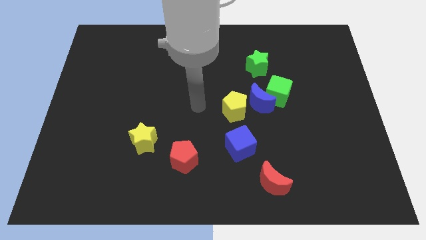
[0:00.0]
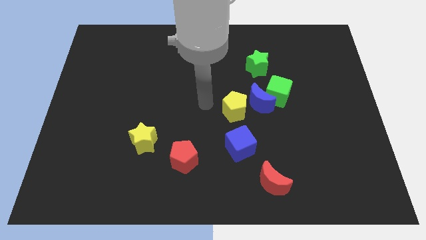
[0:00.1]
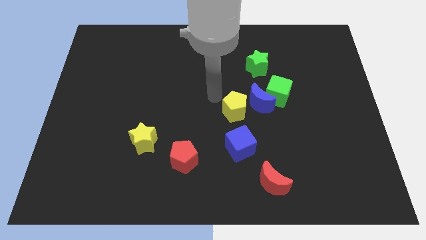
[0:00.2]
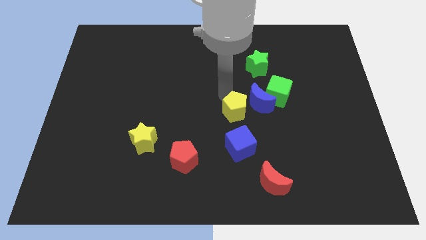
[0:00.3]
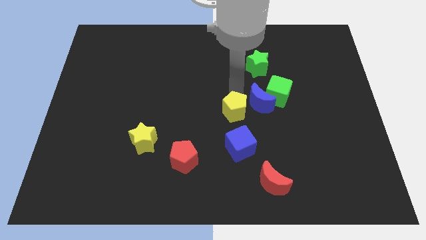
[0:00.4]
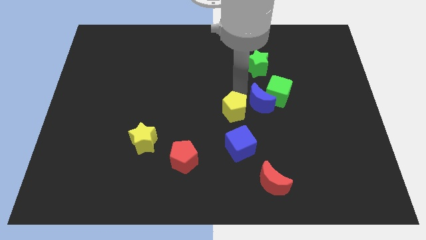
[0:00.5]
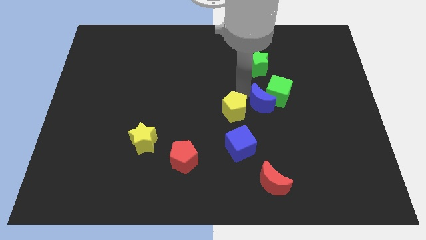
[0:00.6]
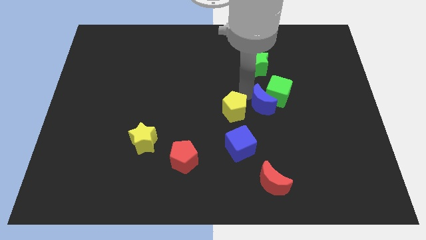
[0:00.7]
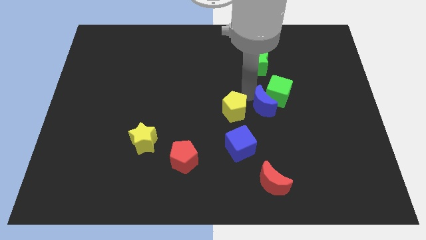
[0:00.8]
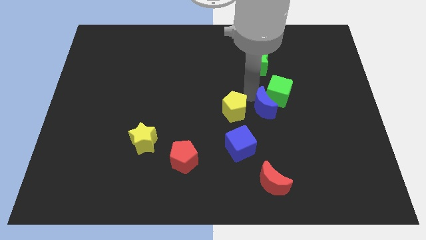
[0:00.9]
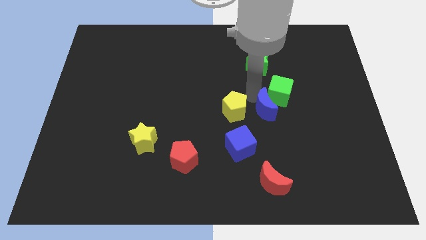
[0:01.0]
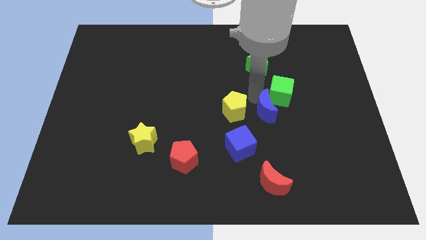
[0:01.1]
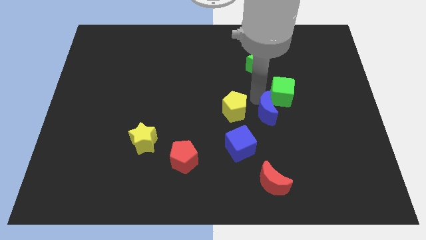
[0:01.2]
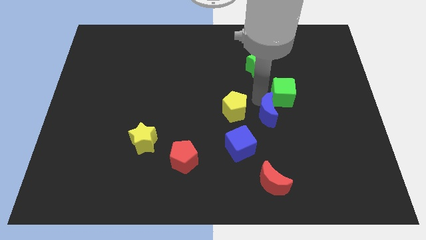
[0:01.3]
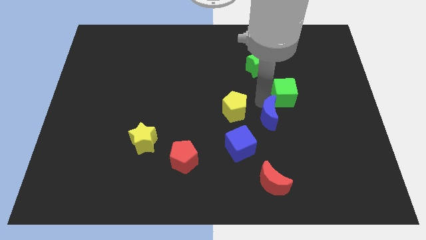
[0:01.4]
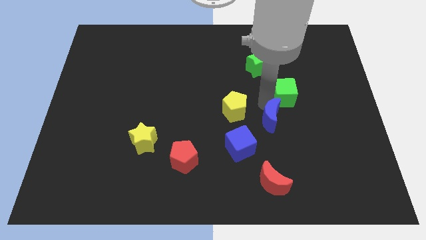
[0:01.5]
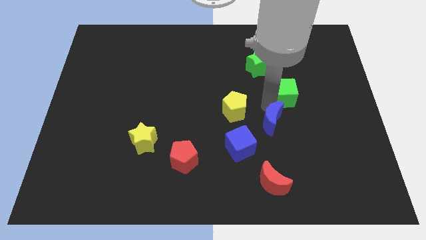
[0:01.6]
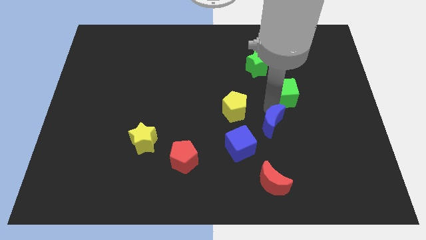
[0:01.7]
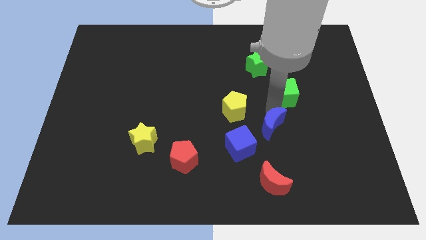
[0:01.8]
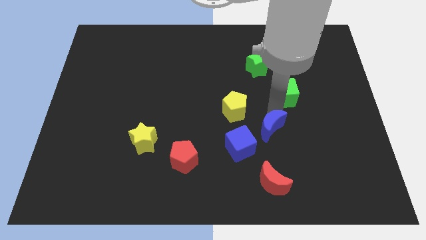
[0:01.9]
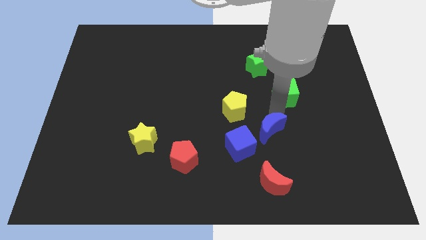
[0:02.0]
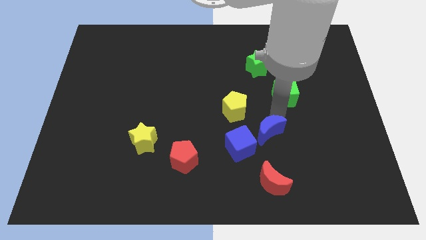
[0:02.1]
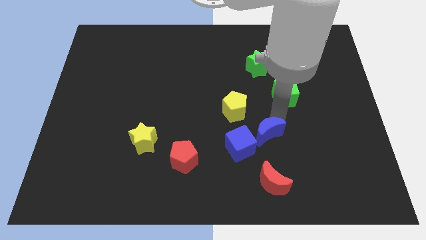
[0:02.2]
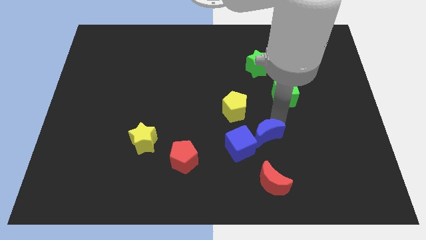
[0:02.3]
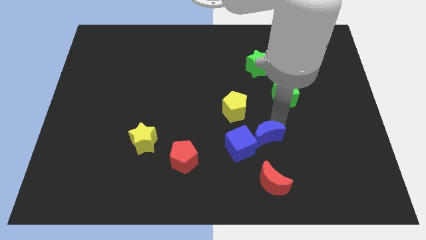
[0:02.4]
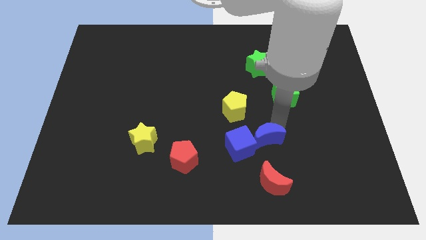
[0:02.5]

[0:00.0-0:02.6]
separate the blue moon from the green cube and yellow pentagon

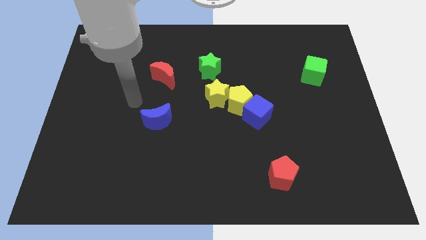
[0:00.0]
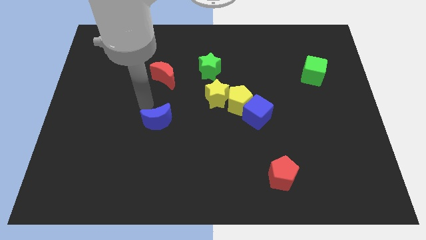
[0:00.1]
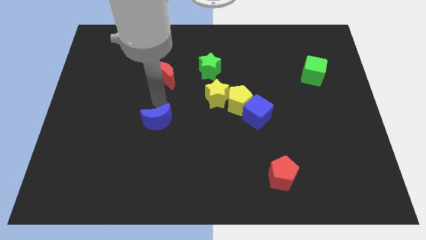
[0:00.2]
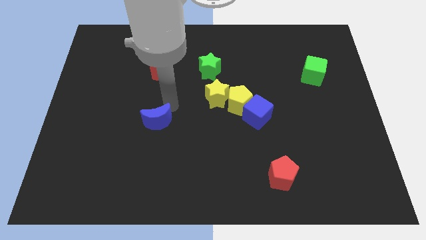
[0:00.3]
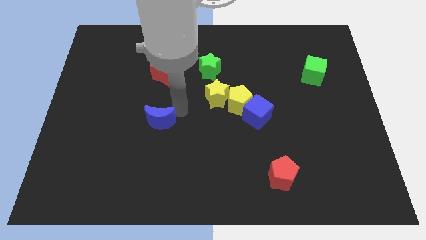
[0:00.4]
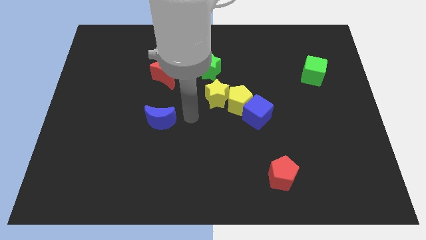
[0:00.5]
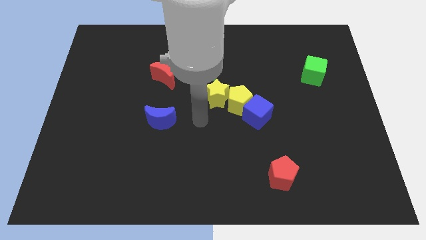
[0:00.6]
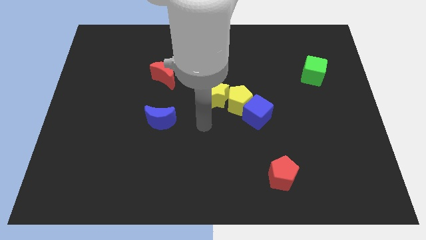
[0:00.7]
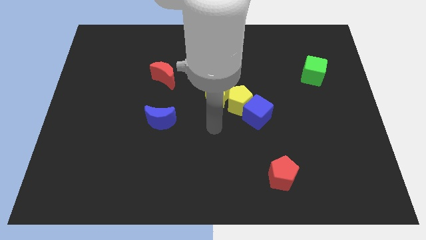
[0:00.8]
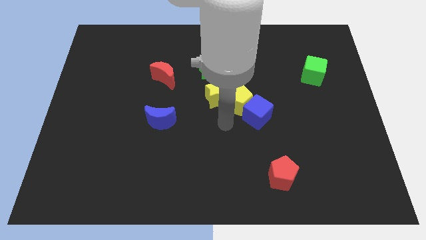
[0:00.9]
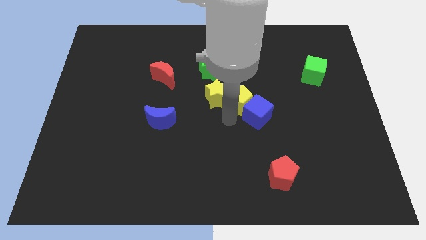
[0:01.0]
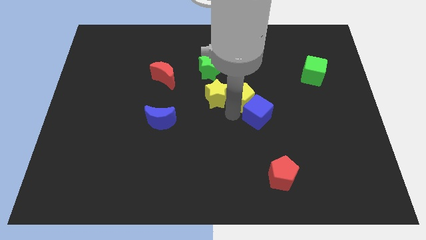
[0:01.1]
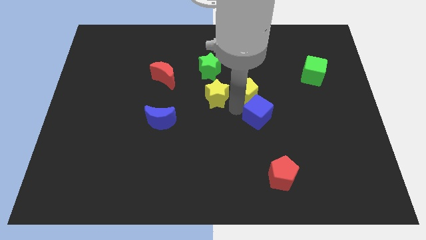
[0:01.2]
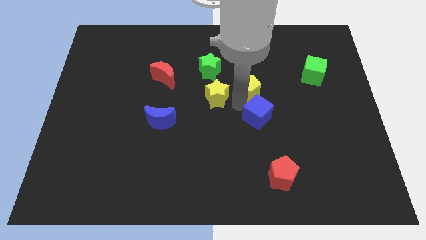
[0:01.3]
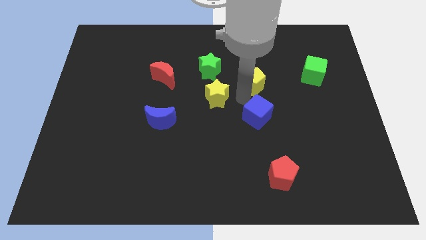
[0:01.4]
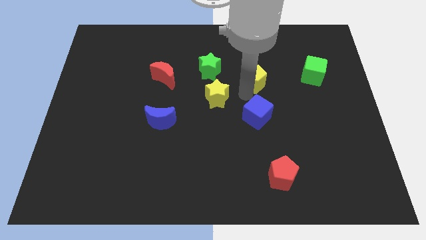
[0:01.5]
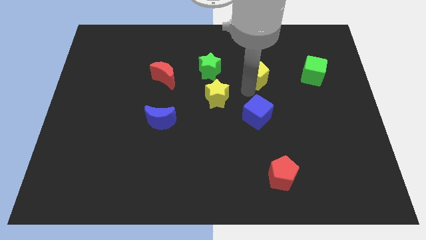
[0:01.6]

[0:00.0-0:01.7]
move the yellow pentagon away from the yellow star and blue cube

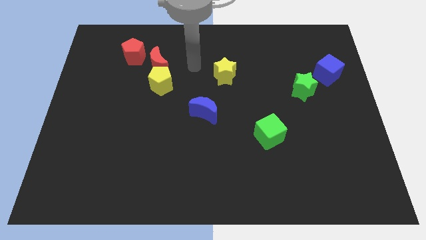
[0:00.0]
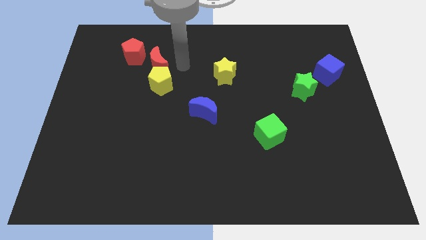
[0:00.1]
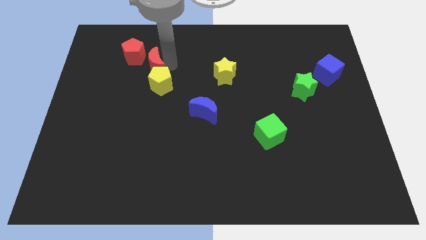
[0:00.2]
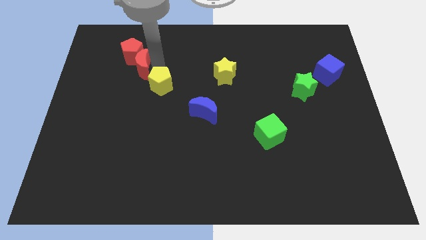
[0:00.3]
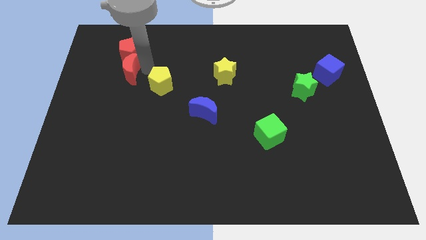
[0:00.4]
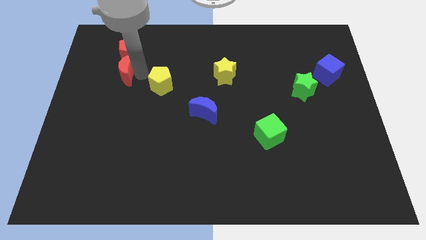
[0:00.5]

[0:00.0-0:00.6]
pull the yellow pentagon apart from the red moon

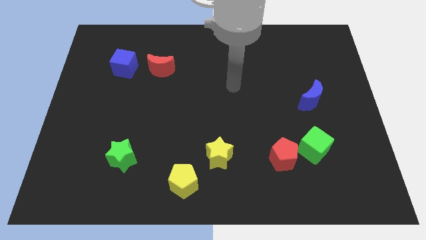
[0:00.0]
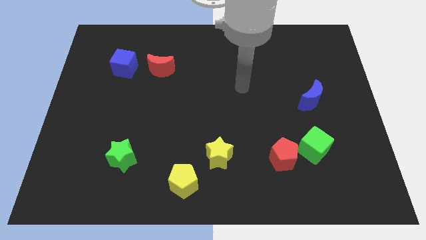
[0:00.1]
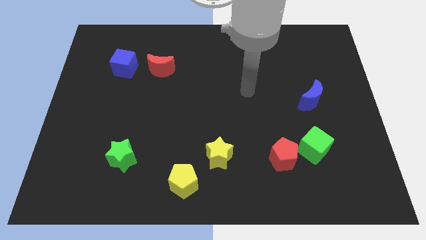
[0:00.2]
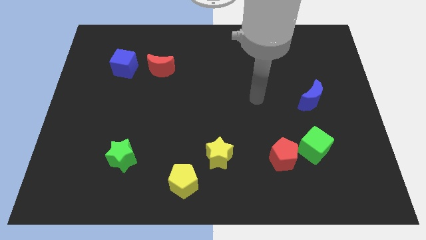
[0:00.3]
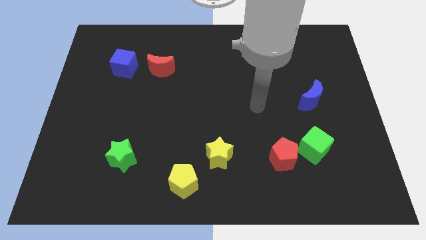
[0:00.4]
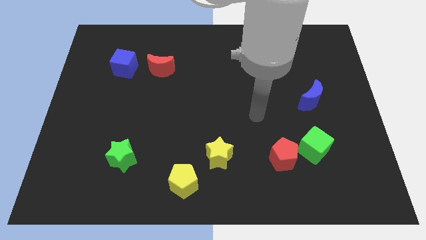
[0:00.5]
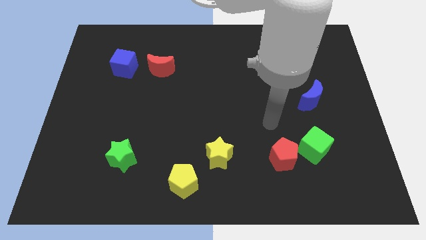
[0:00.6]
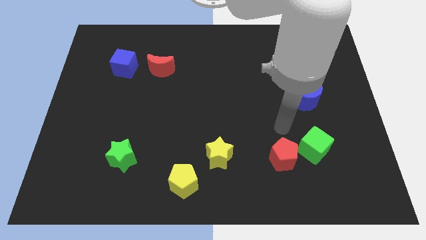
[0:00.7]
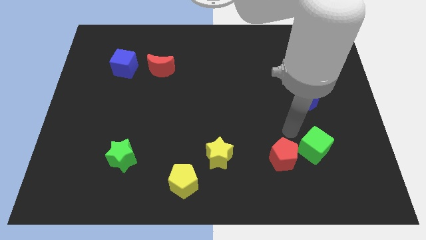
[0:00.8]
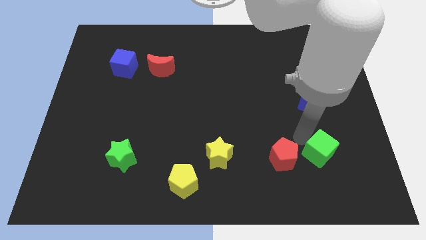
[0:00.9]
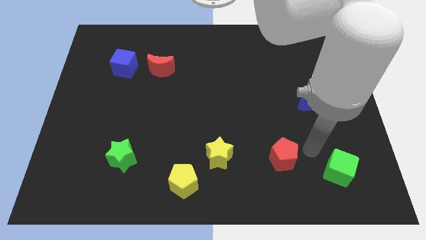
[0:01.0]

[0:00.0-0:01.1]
pull the red pentagon apart from the green cube

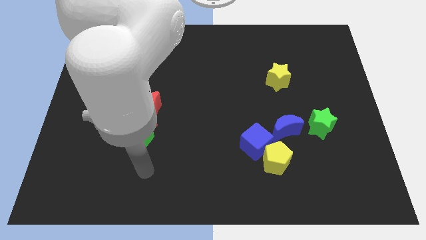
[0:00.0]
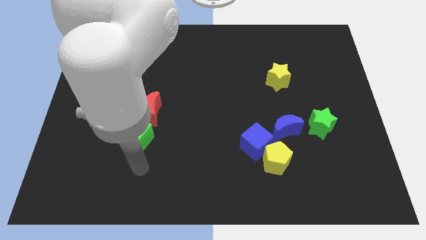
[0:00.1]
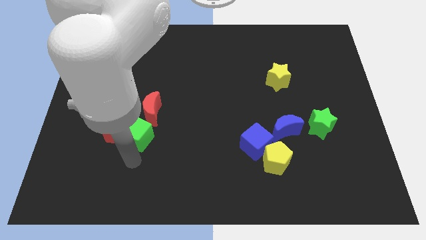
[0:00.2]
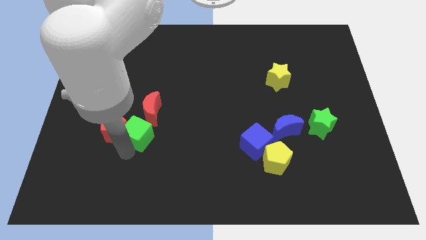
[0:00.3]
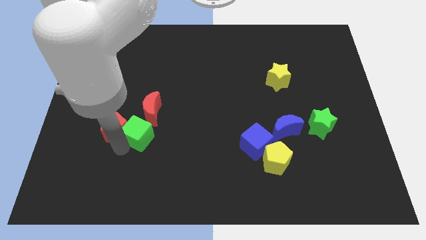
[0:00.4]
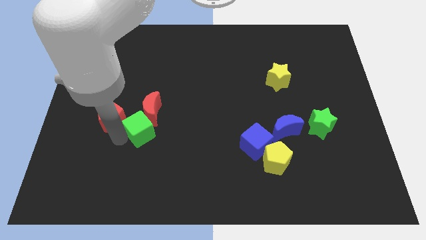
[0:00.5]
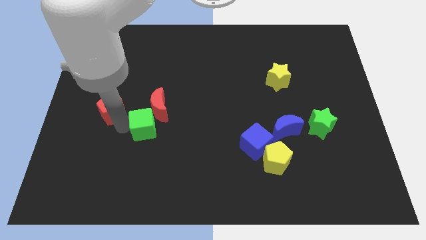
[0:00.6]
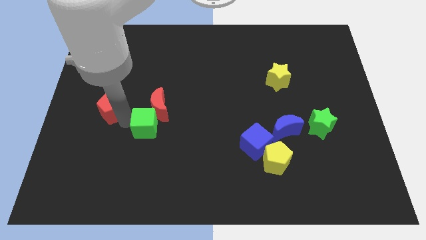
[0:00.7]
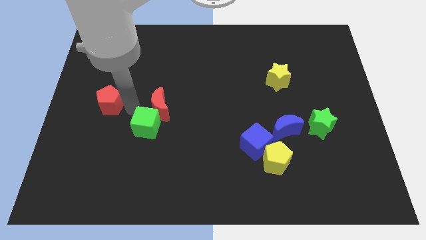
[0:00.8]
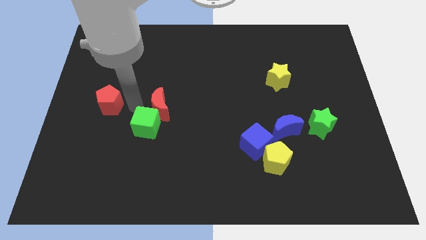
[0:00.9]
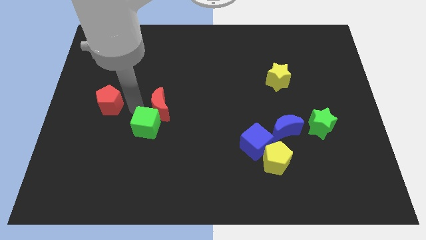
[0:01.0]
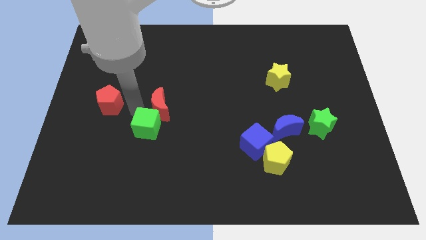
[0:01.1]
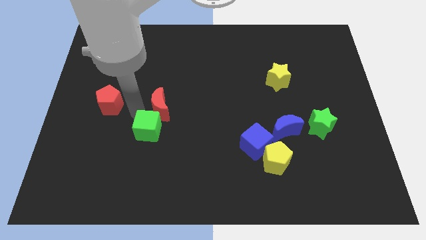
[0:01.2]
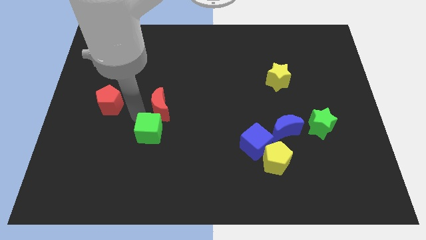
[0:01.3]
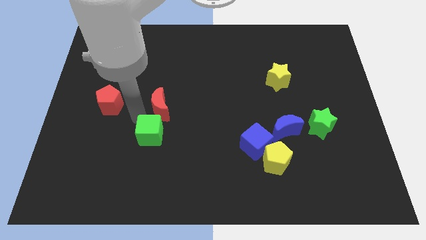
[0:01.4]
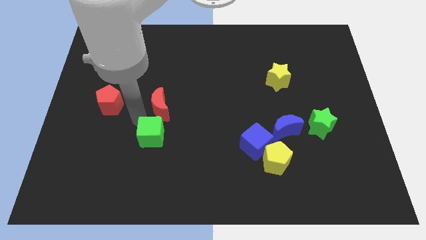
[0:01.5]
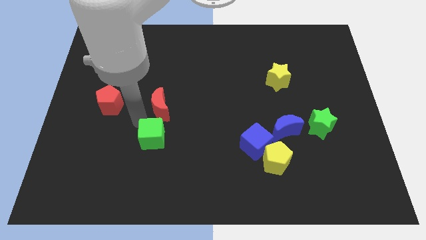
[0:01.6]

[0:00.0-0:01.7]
move the green cube away from the red pentagon and red moon

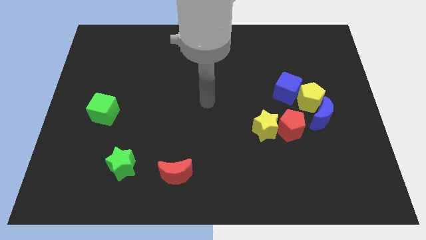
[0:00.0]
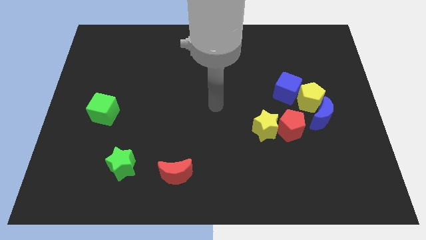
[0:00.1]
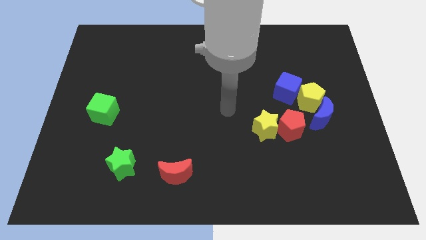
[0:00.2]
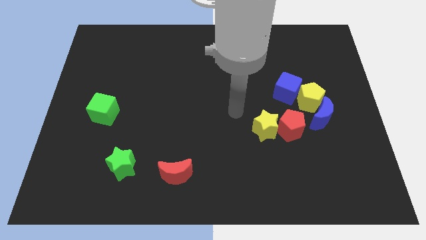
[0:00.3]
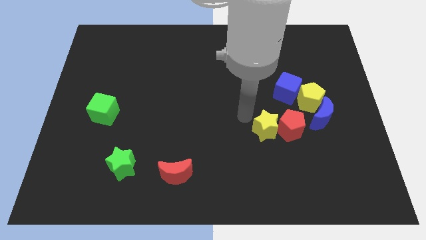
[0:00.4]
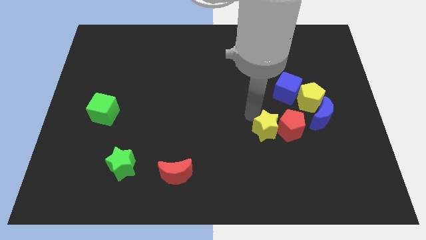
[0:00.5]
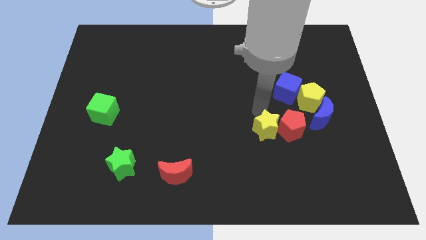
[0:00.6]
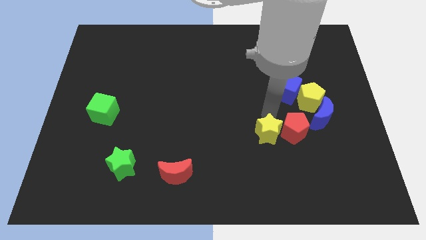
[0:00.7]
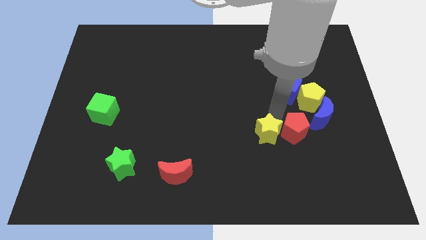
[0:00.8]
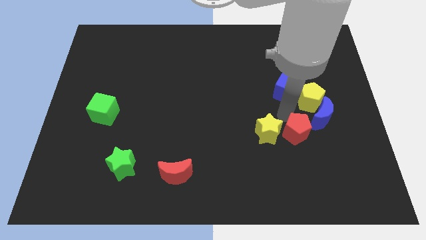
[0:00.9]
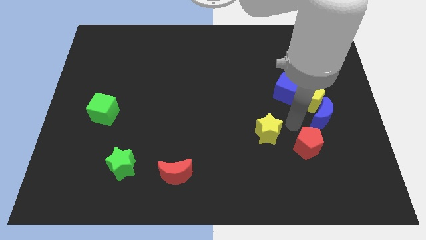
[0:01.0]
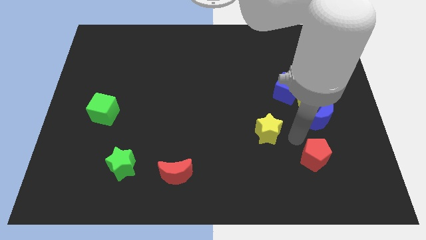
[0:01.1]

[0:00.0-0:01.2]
pull the yellow star apart from the red pentagon

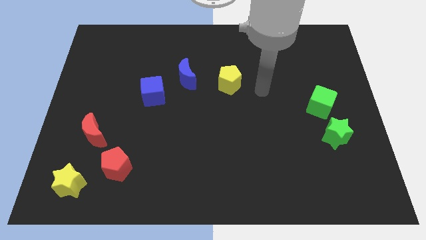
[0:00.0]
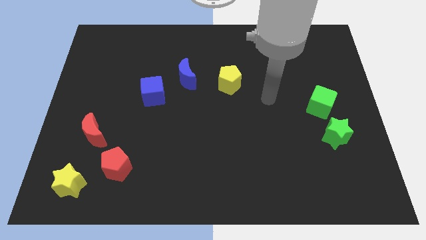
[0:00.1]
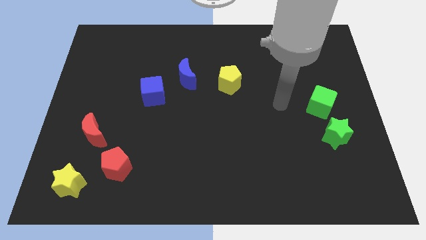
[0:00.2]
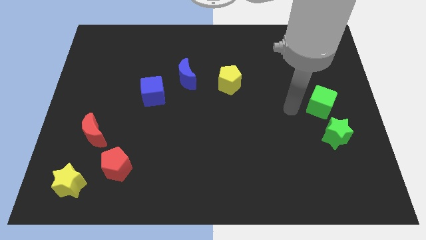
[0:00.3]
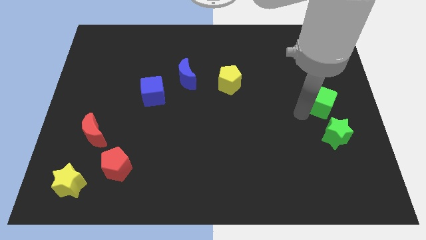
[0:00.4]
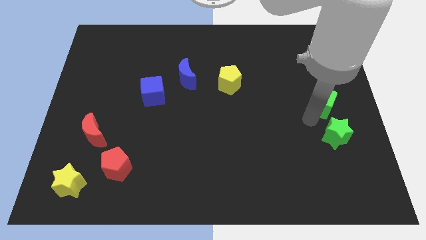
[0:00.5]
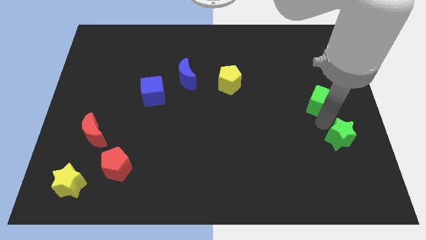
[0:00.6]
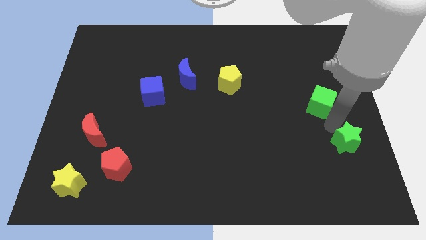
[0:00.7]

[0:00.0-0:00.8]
separate the green cube from the green star
